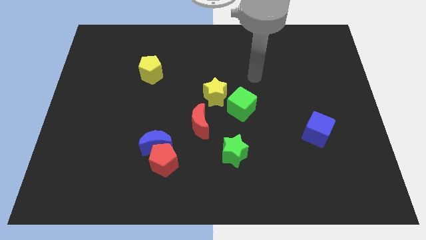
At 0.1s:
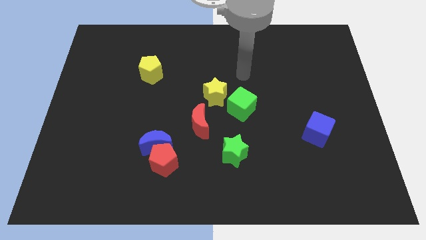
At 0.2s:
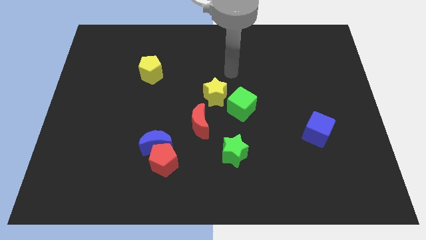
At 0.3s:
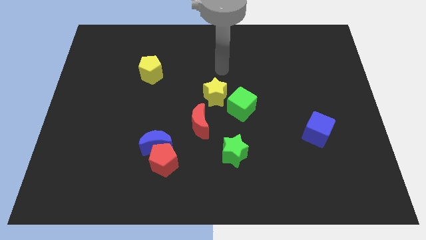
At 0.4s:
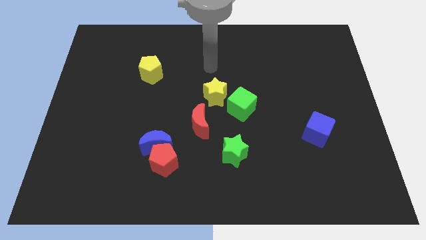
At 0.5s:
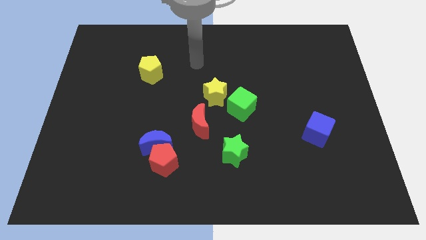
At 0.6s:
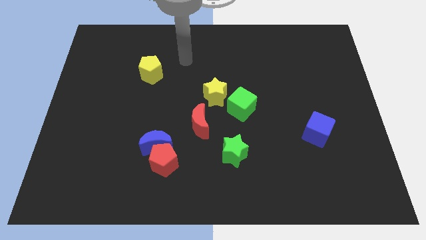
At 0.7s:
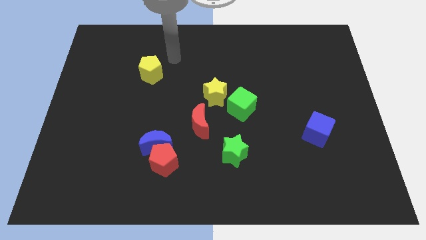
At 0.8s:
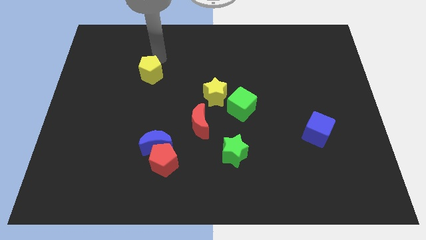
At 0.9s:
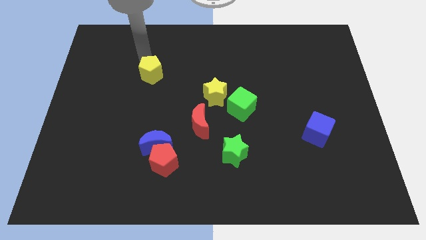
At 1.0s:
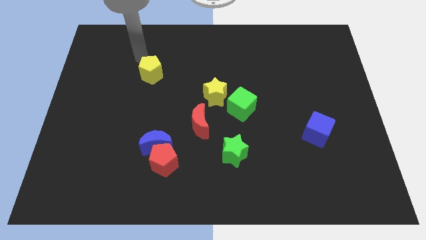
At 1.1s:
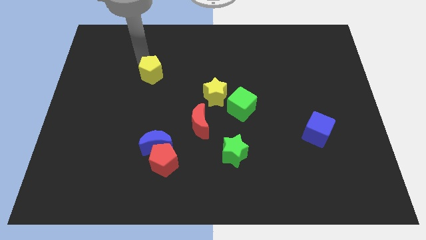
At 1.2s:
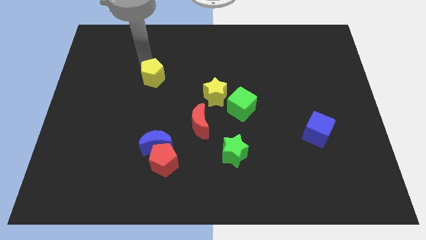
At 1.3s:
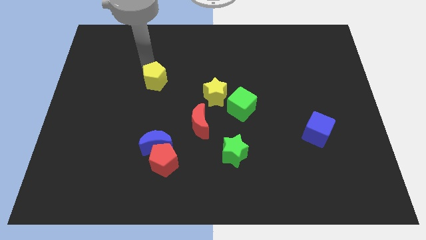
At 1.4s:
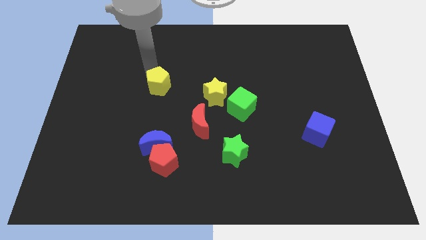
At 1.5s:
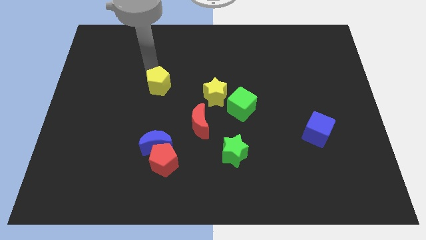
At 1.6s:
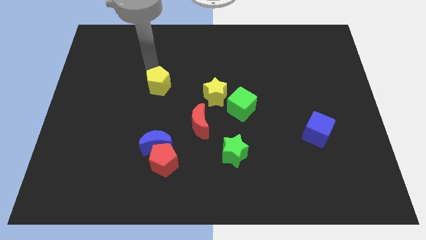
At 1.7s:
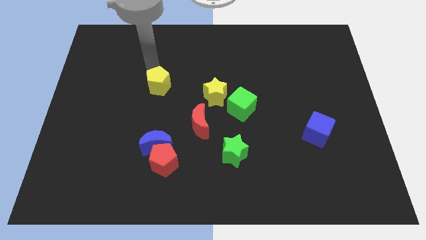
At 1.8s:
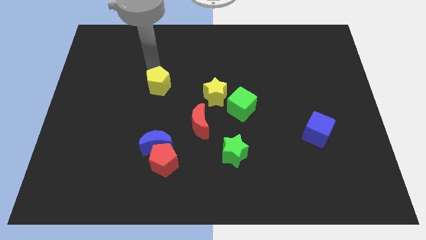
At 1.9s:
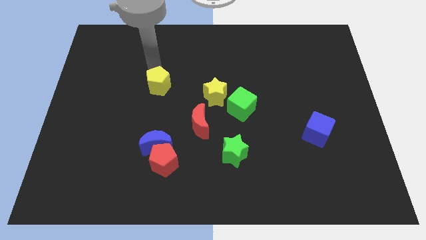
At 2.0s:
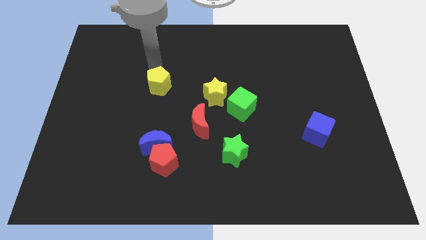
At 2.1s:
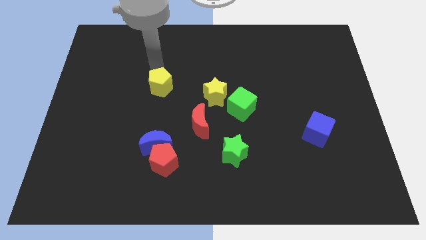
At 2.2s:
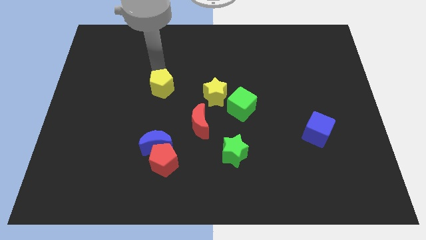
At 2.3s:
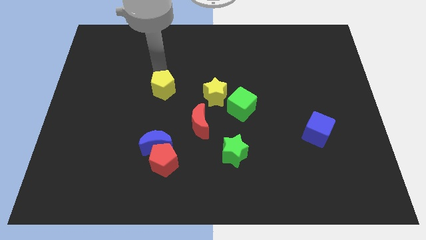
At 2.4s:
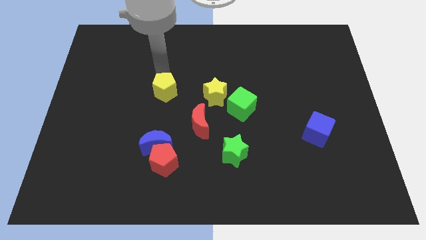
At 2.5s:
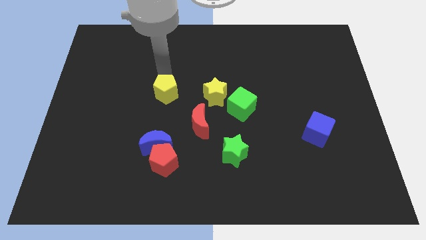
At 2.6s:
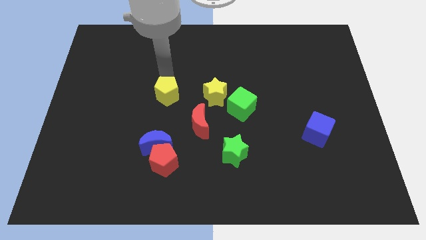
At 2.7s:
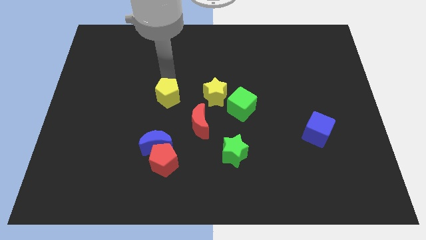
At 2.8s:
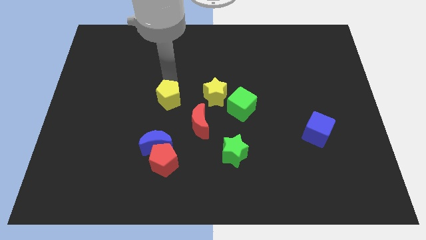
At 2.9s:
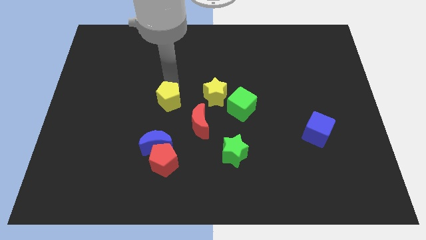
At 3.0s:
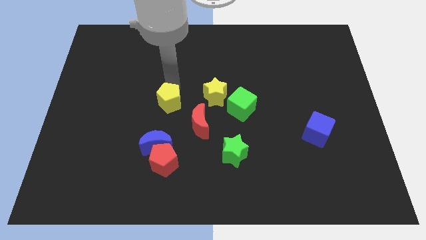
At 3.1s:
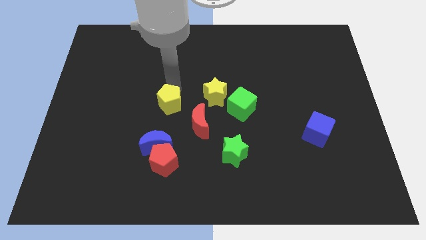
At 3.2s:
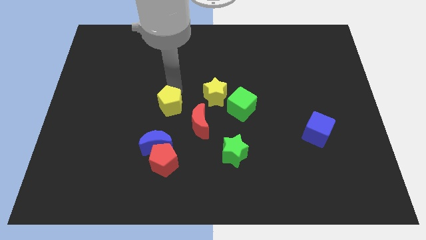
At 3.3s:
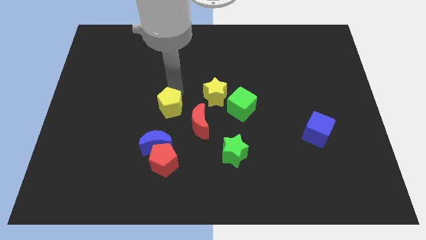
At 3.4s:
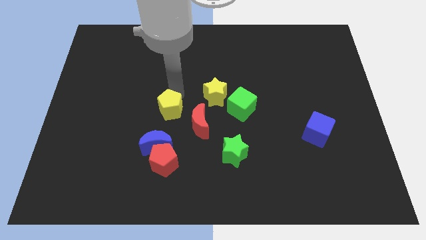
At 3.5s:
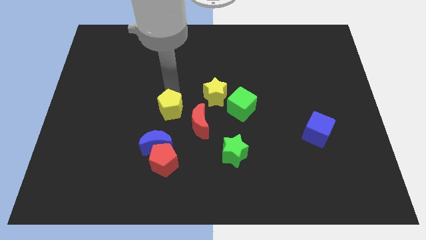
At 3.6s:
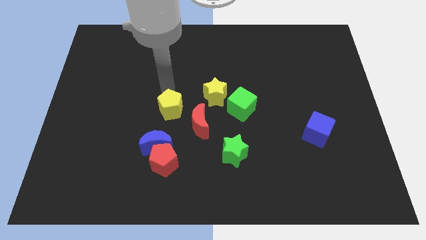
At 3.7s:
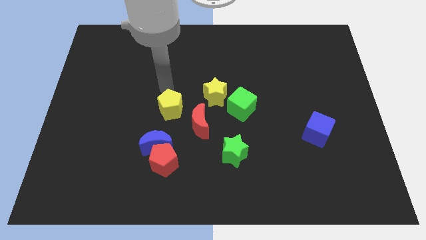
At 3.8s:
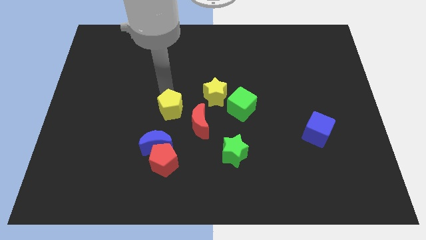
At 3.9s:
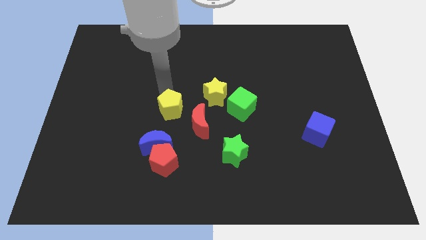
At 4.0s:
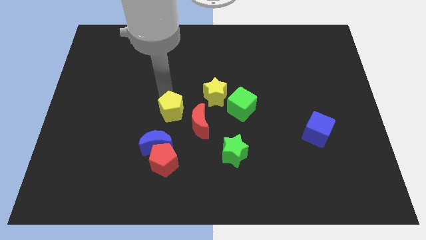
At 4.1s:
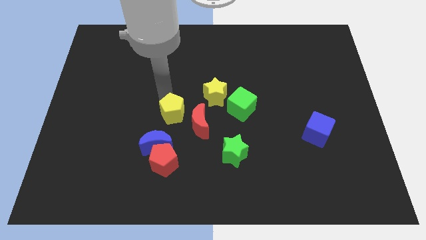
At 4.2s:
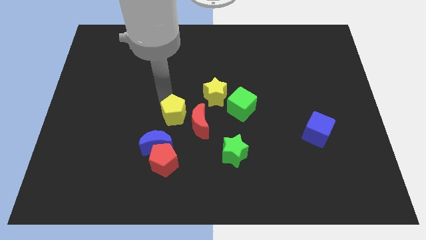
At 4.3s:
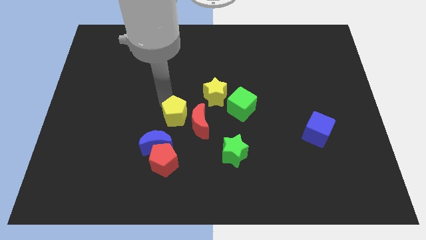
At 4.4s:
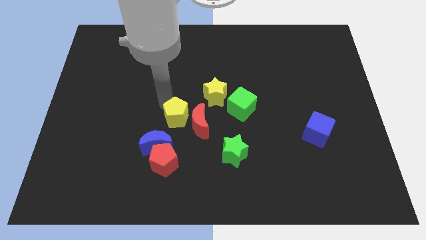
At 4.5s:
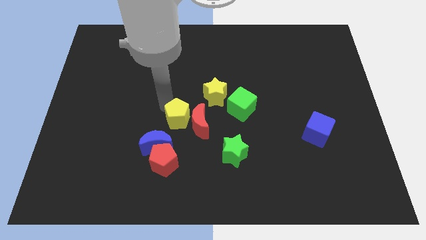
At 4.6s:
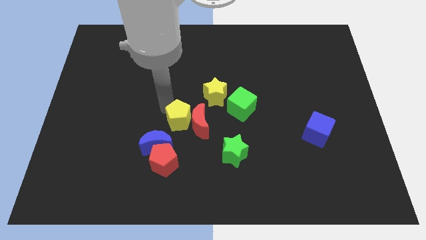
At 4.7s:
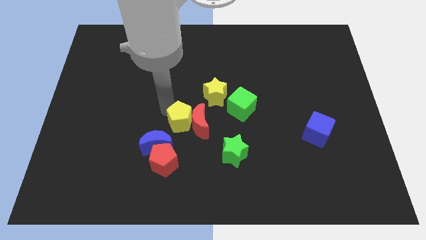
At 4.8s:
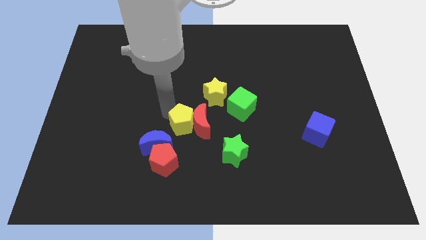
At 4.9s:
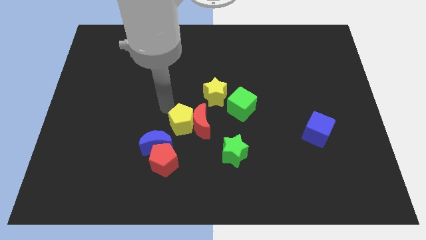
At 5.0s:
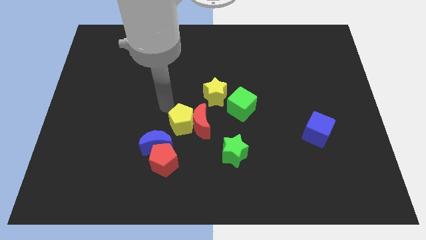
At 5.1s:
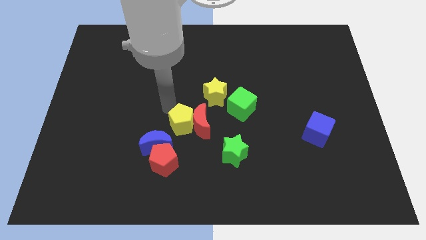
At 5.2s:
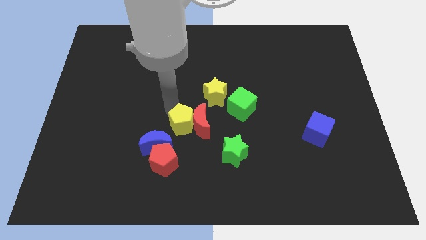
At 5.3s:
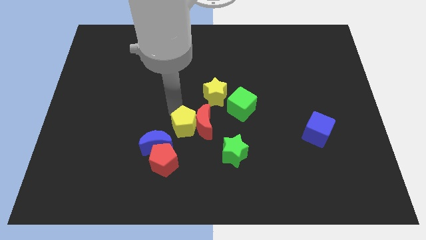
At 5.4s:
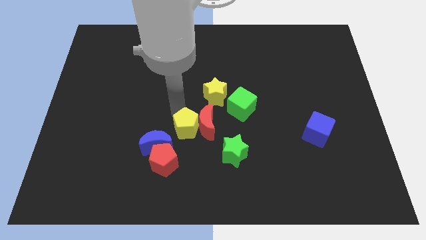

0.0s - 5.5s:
put the yellow pentagon just right of the blue moon

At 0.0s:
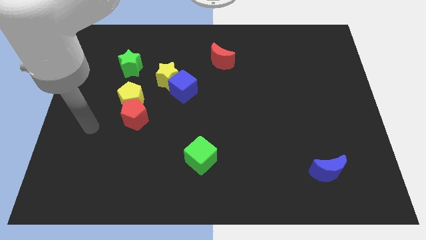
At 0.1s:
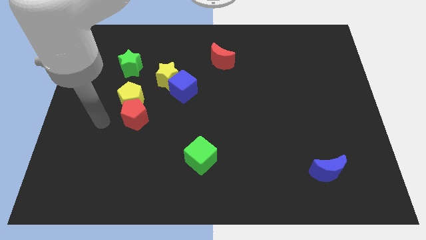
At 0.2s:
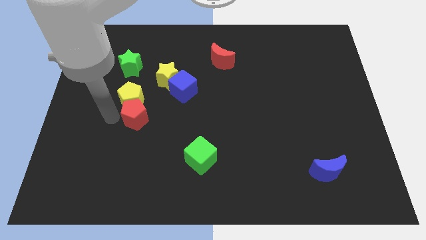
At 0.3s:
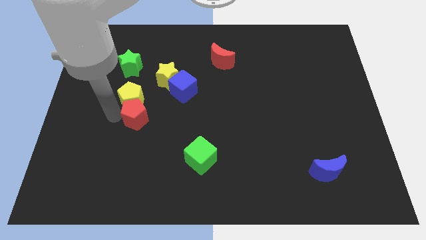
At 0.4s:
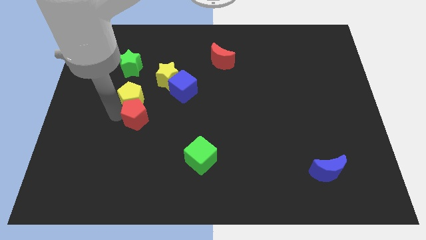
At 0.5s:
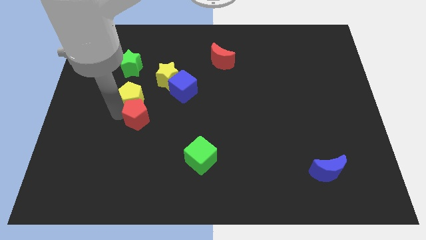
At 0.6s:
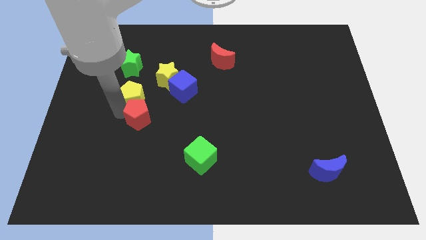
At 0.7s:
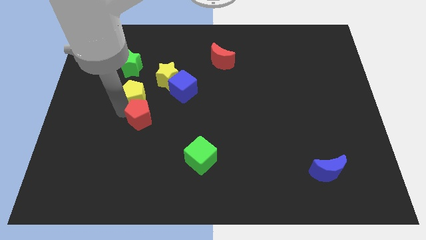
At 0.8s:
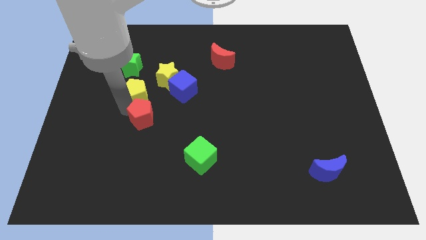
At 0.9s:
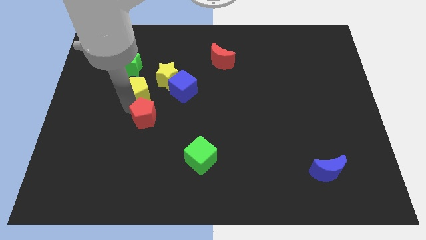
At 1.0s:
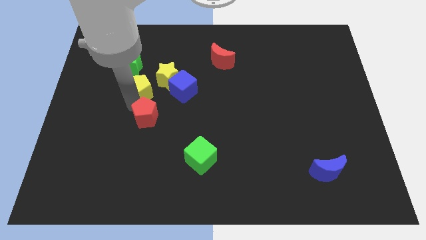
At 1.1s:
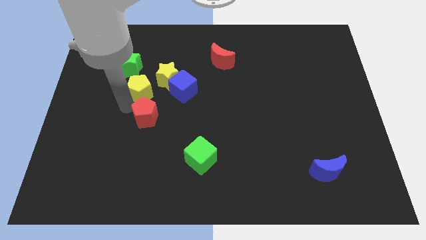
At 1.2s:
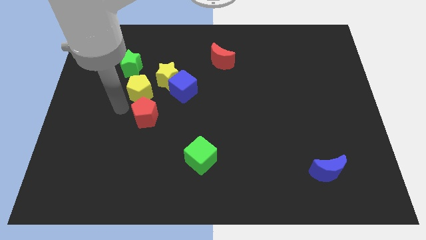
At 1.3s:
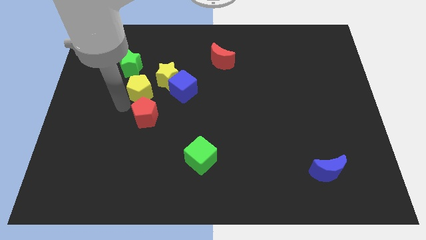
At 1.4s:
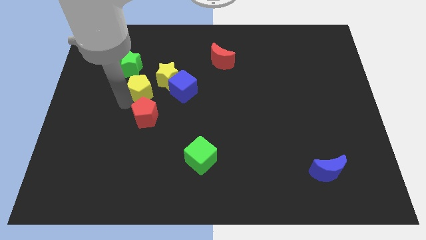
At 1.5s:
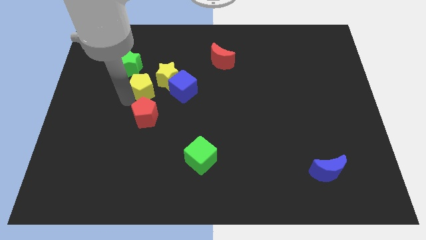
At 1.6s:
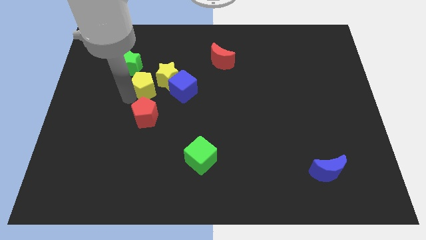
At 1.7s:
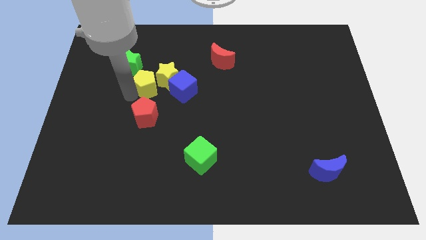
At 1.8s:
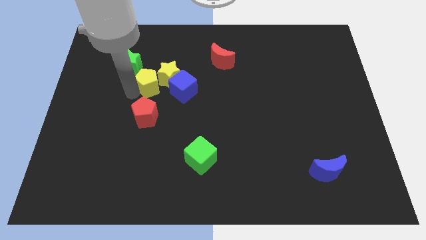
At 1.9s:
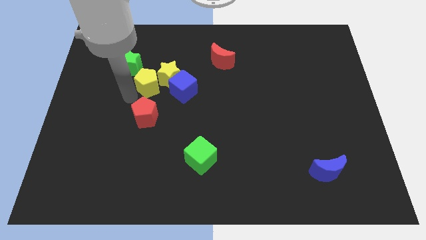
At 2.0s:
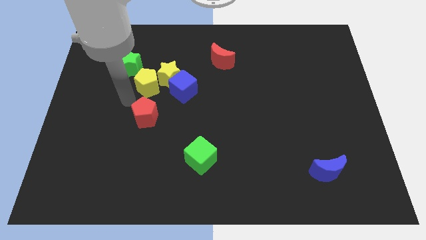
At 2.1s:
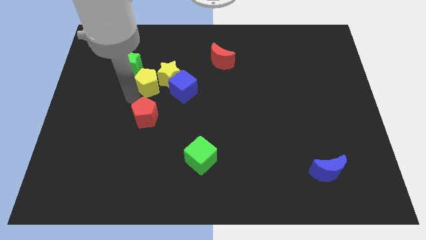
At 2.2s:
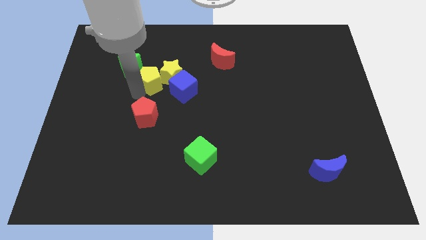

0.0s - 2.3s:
move the yellow pentagon to the top left side of the blue cube
